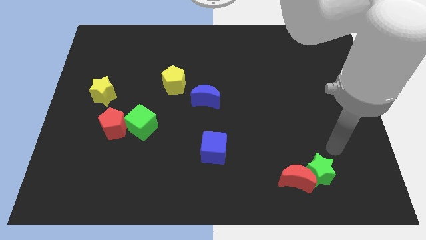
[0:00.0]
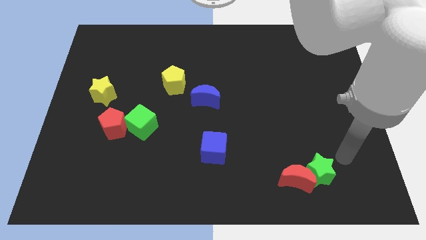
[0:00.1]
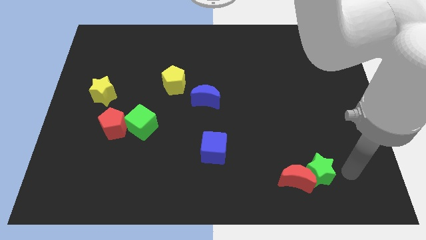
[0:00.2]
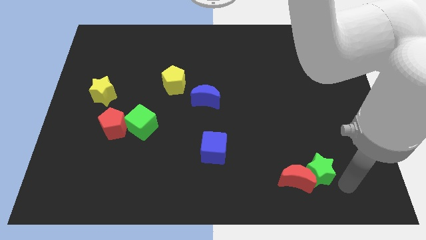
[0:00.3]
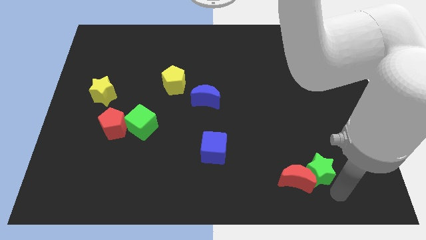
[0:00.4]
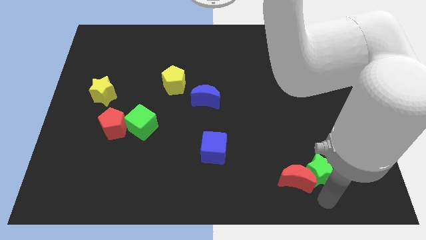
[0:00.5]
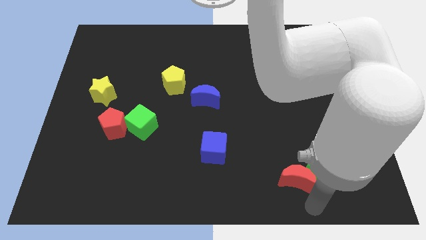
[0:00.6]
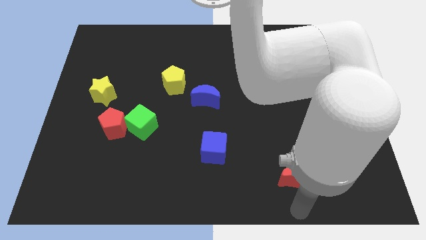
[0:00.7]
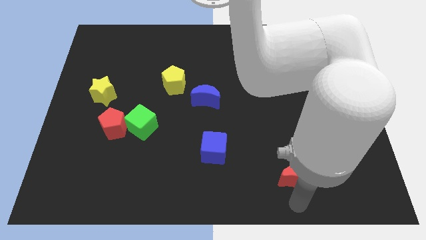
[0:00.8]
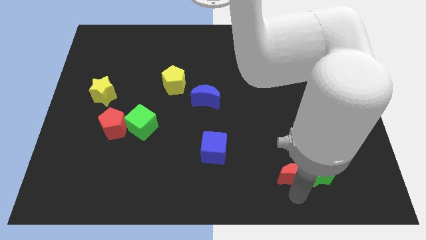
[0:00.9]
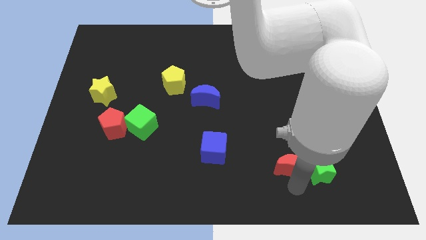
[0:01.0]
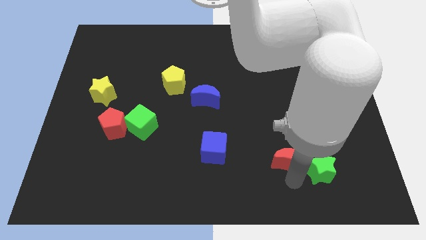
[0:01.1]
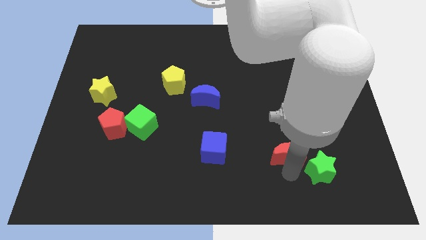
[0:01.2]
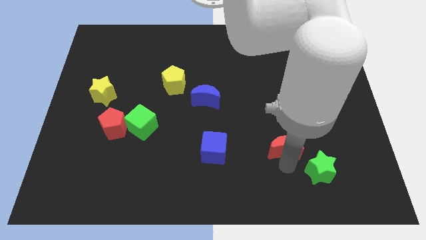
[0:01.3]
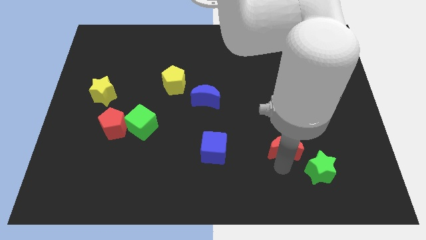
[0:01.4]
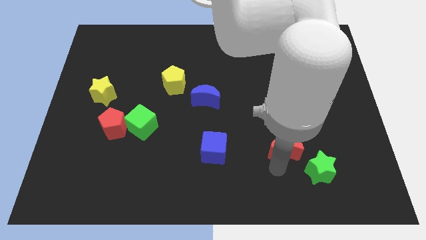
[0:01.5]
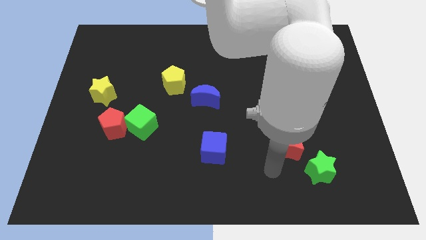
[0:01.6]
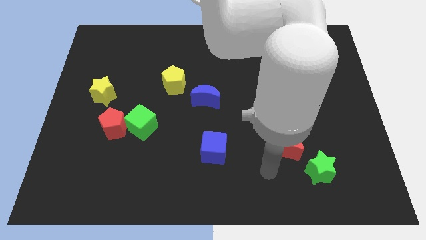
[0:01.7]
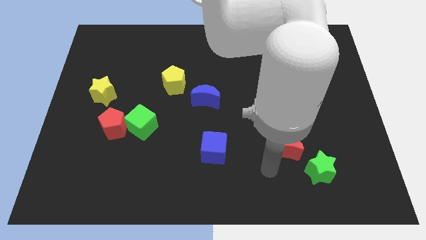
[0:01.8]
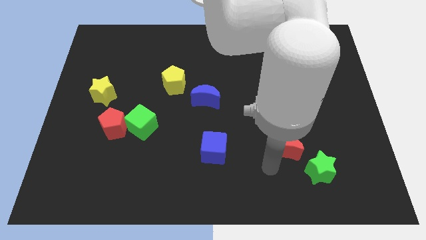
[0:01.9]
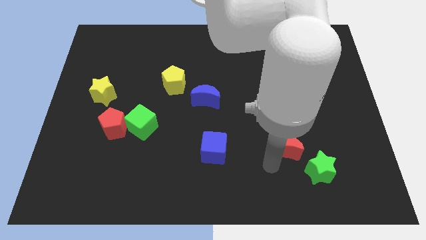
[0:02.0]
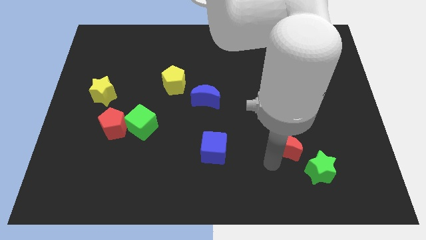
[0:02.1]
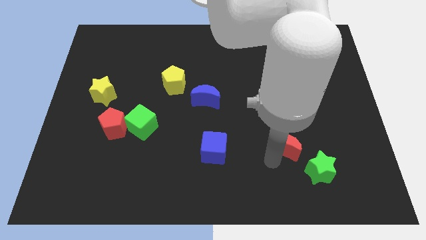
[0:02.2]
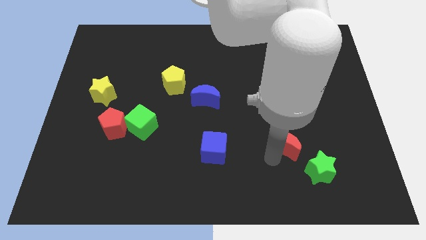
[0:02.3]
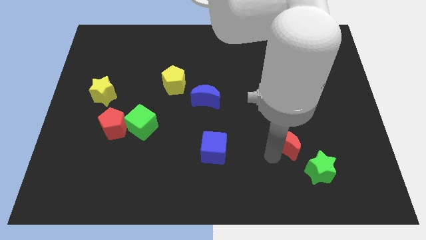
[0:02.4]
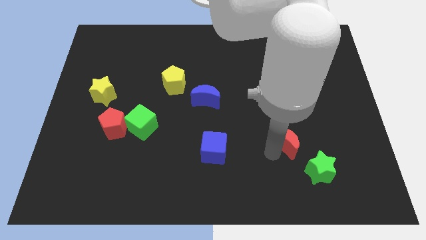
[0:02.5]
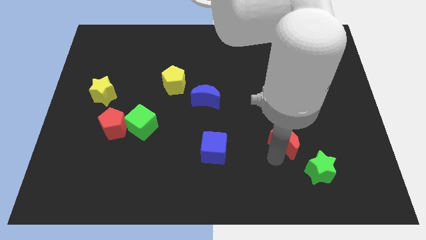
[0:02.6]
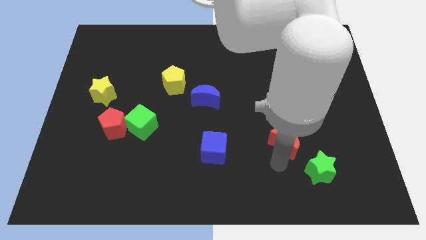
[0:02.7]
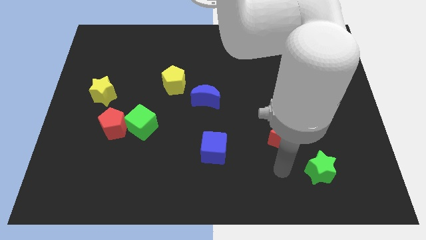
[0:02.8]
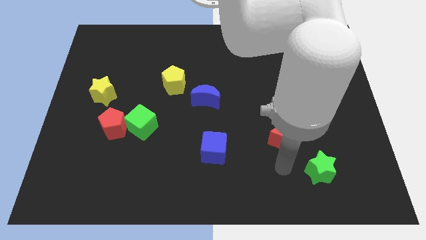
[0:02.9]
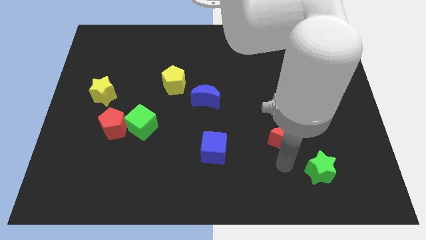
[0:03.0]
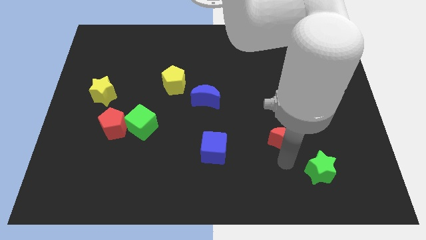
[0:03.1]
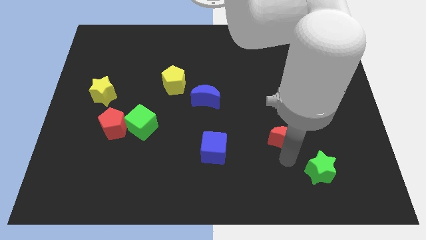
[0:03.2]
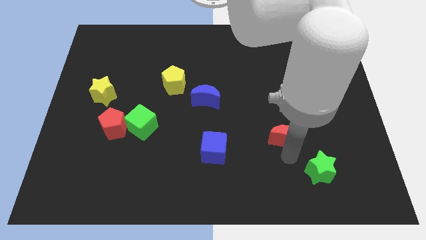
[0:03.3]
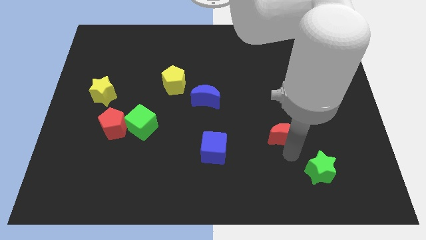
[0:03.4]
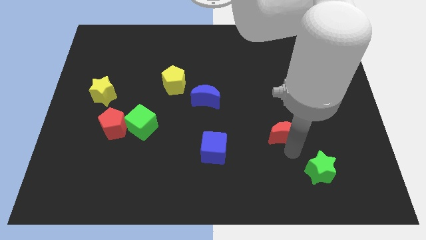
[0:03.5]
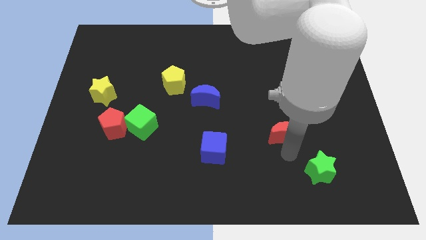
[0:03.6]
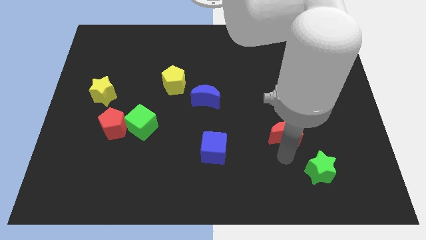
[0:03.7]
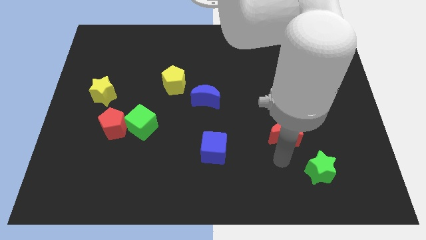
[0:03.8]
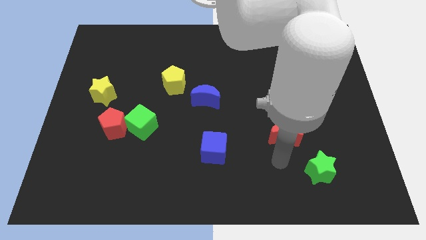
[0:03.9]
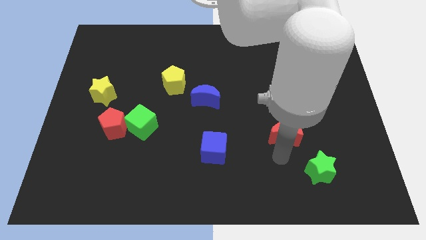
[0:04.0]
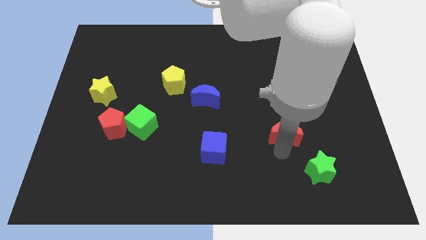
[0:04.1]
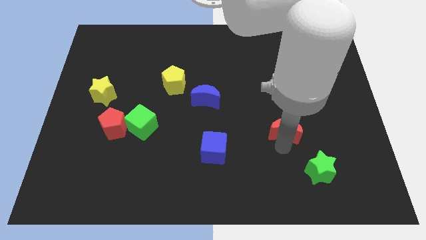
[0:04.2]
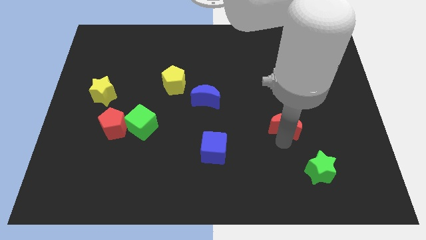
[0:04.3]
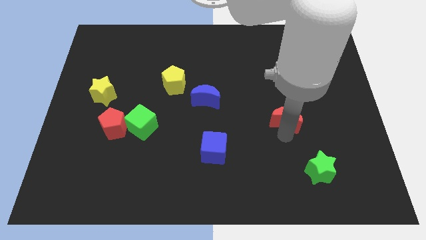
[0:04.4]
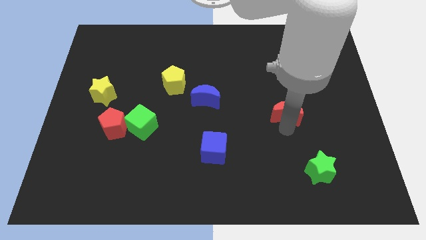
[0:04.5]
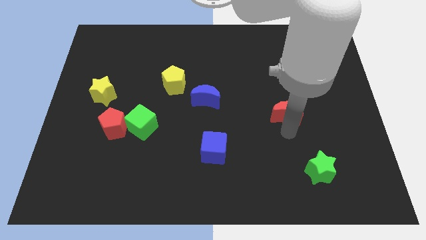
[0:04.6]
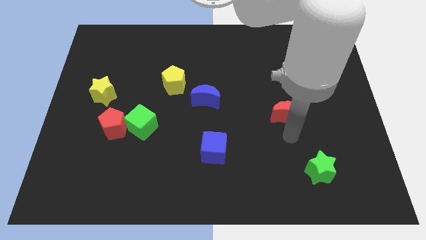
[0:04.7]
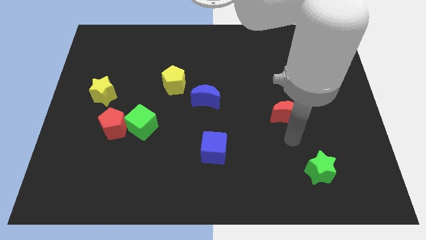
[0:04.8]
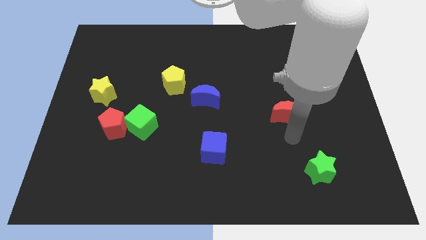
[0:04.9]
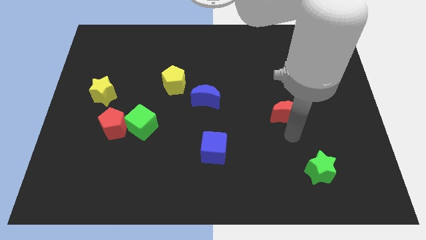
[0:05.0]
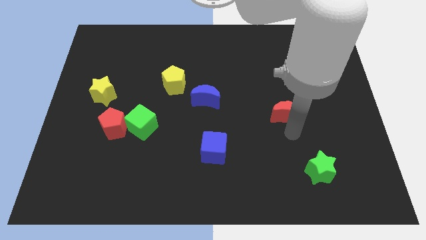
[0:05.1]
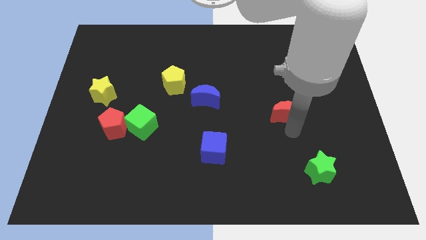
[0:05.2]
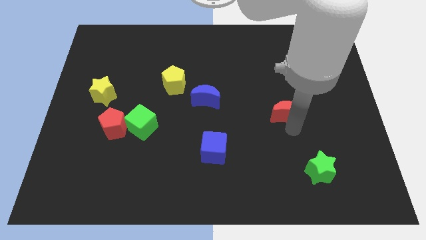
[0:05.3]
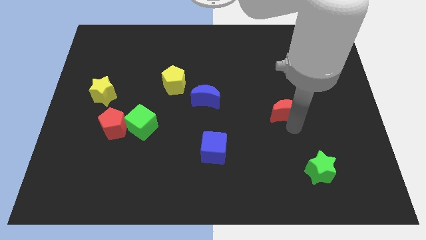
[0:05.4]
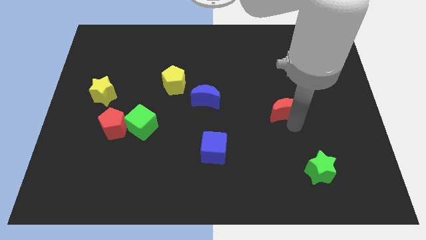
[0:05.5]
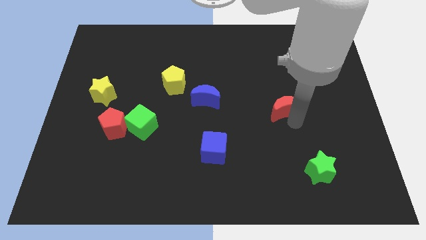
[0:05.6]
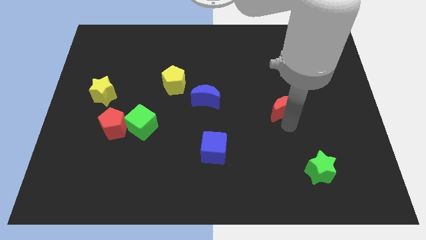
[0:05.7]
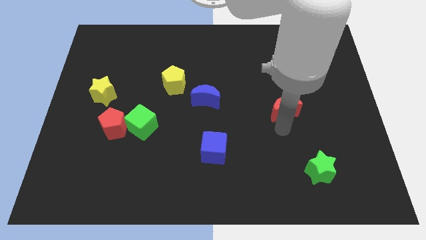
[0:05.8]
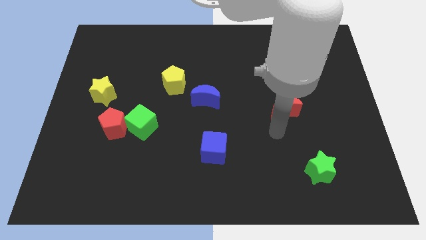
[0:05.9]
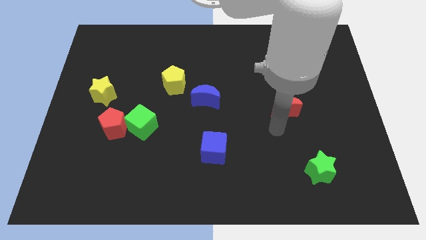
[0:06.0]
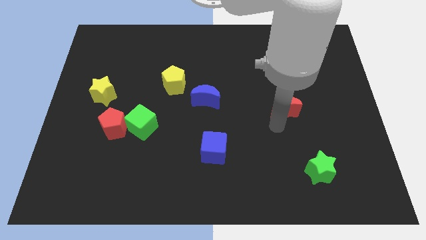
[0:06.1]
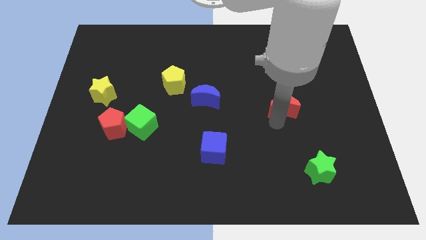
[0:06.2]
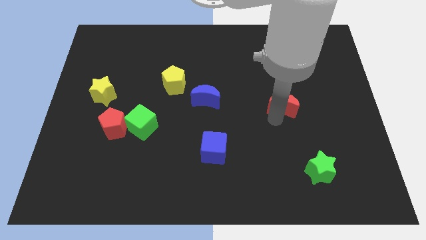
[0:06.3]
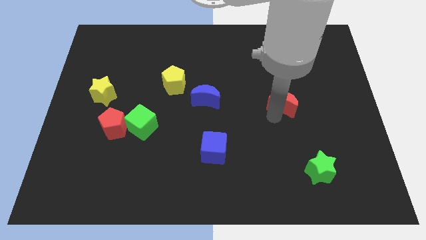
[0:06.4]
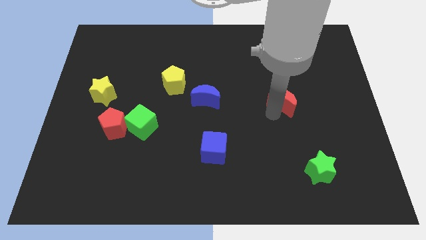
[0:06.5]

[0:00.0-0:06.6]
push the red moon up

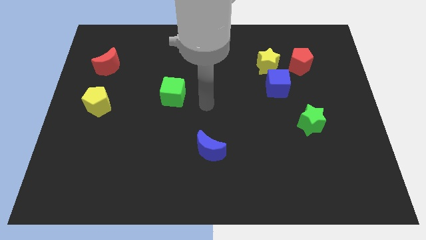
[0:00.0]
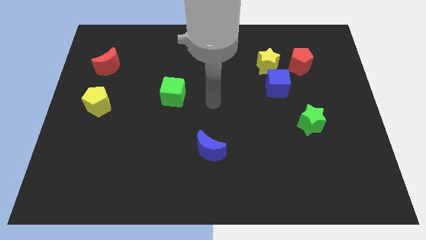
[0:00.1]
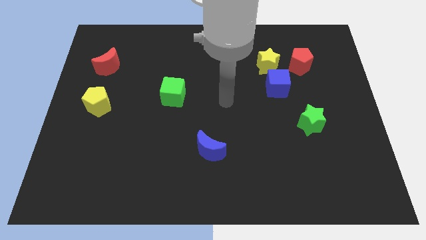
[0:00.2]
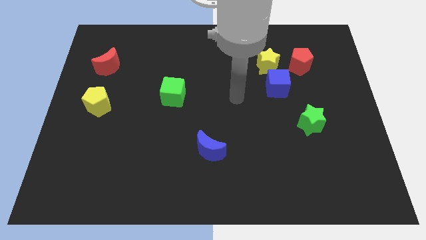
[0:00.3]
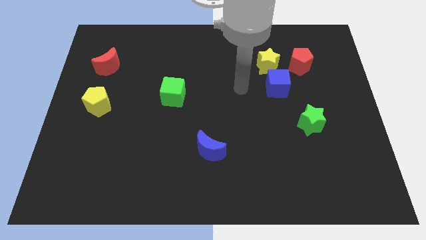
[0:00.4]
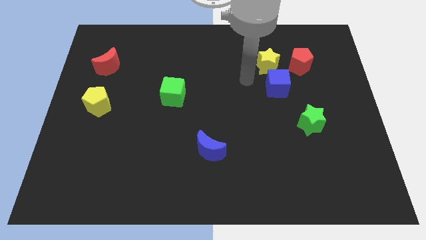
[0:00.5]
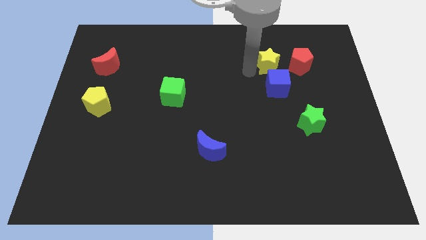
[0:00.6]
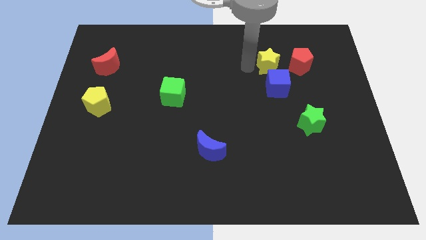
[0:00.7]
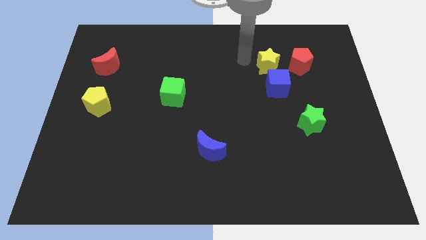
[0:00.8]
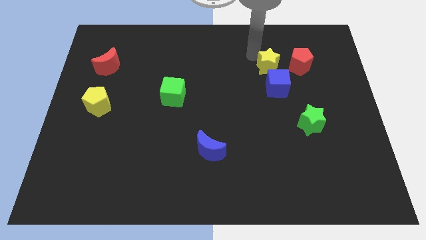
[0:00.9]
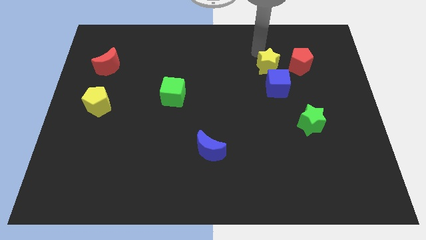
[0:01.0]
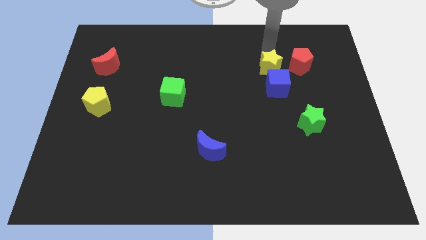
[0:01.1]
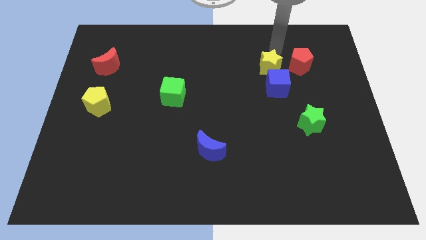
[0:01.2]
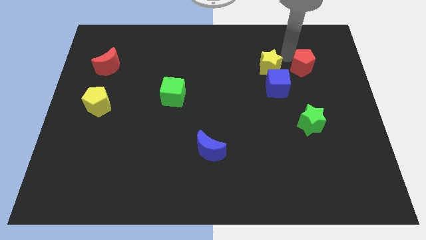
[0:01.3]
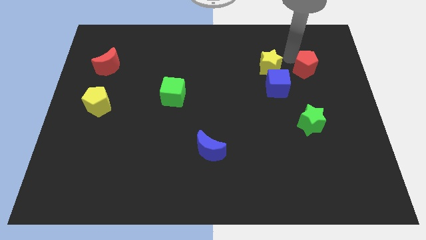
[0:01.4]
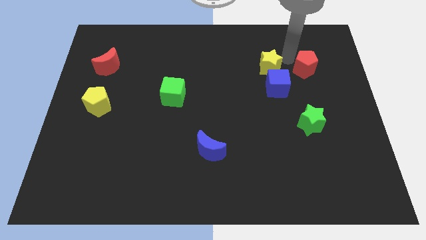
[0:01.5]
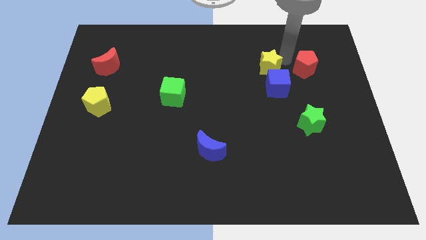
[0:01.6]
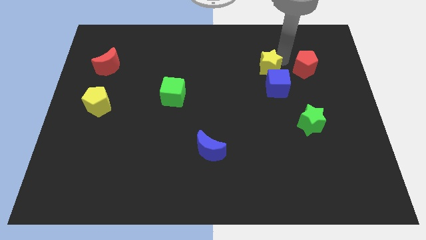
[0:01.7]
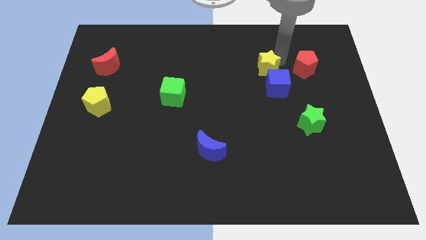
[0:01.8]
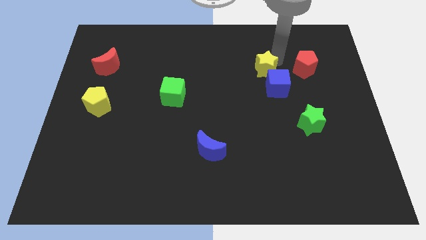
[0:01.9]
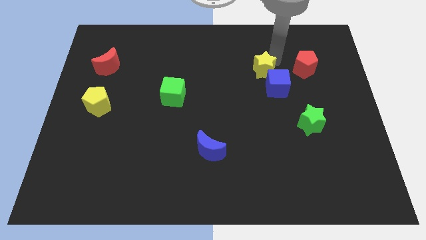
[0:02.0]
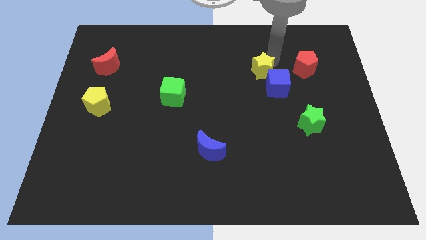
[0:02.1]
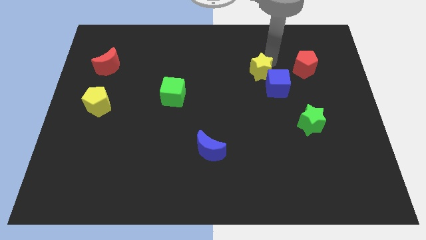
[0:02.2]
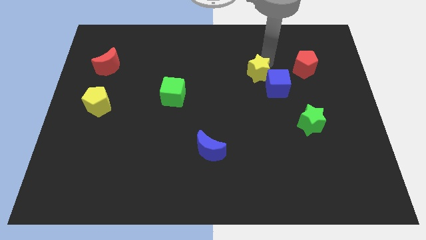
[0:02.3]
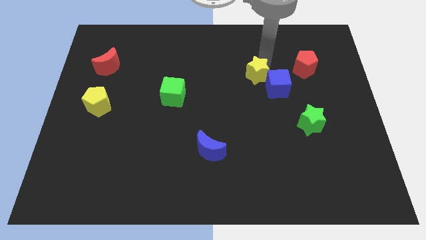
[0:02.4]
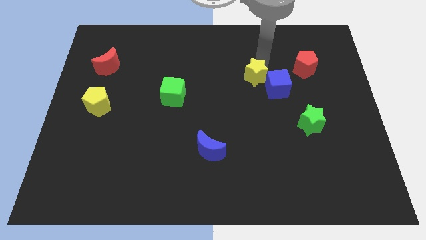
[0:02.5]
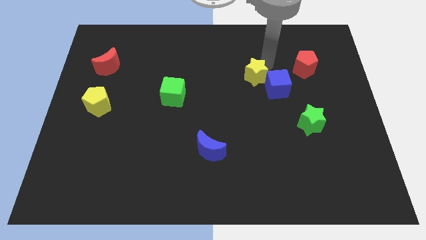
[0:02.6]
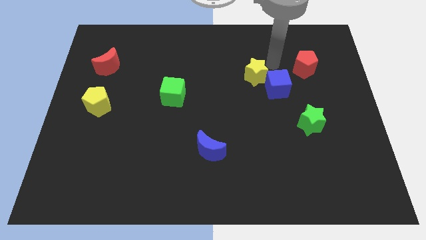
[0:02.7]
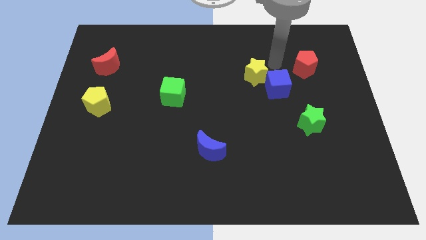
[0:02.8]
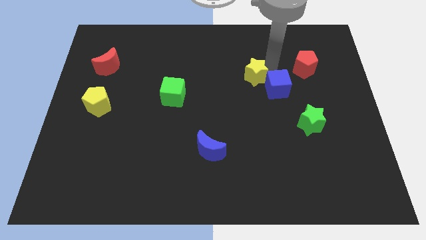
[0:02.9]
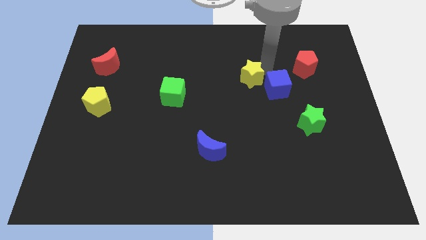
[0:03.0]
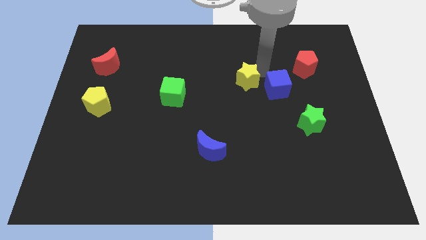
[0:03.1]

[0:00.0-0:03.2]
move the yellow star a little bit diagonally downwards and to the left
